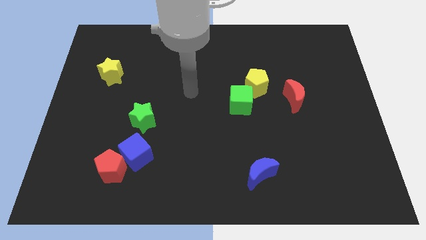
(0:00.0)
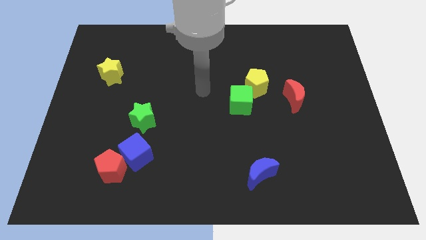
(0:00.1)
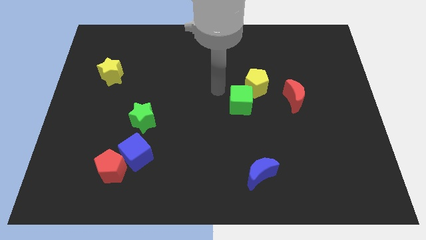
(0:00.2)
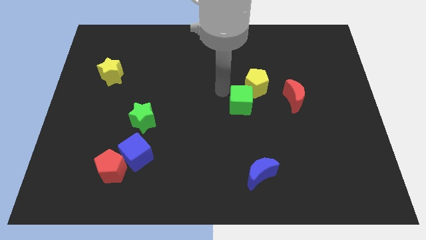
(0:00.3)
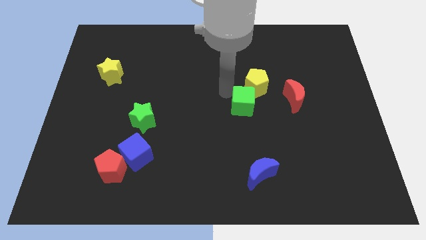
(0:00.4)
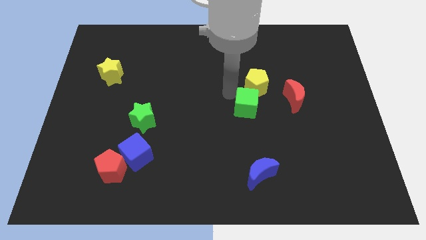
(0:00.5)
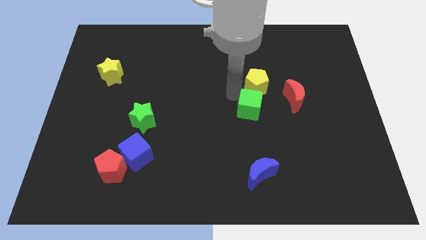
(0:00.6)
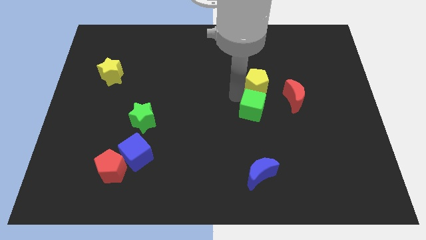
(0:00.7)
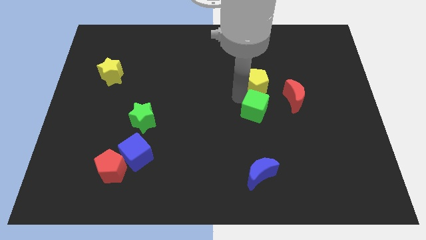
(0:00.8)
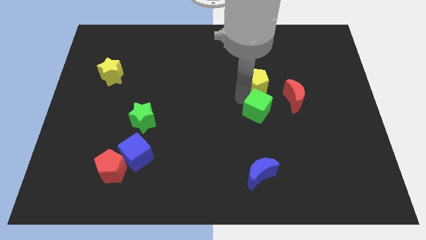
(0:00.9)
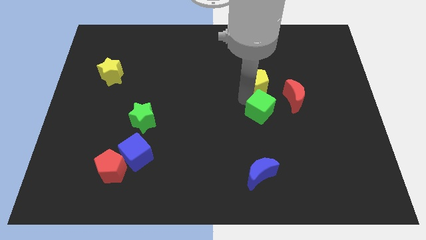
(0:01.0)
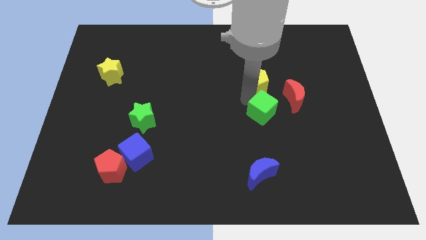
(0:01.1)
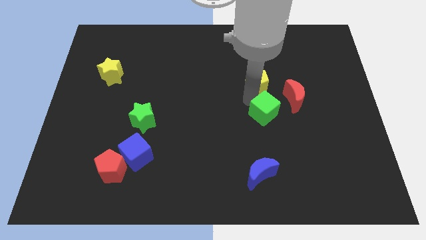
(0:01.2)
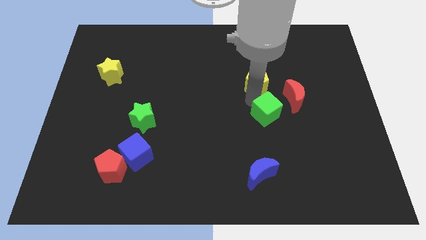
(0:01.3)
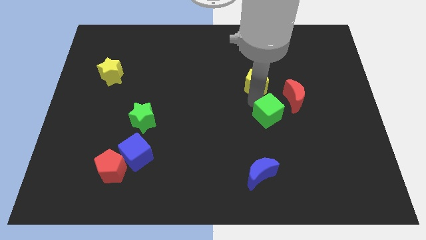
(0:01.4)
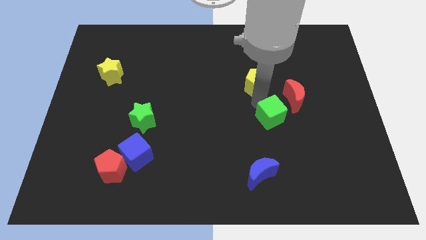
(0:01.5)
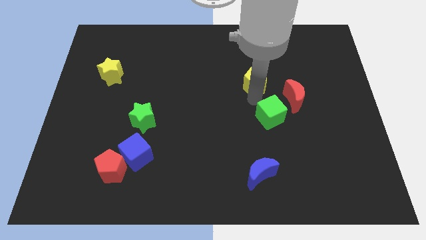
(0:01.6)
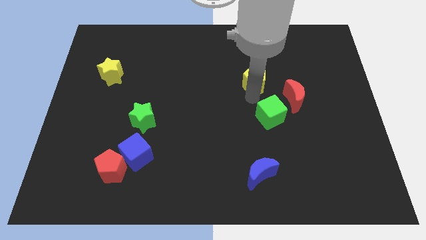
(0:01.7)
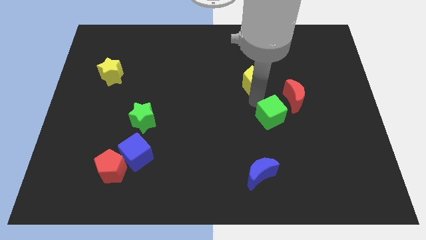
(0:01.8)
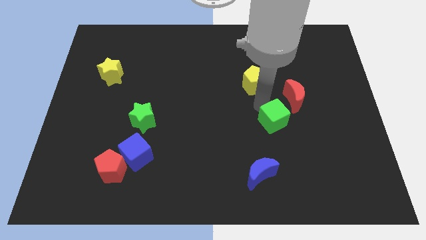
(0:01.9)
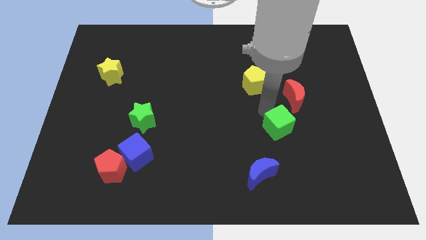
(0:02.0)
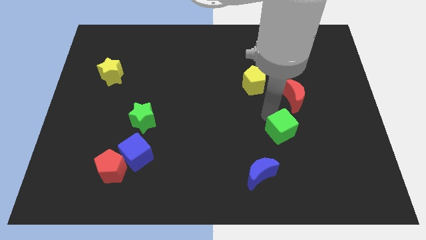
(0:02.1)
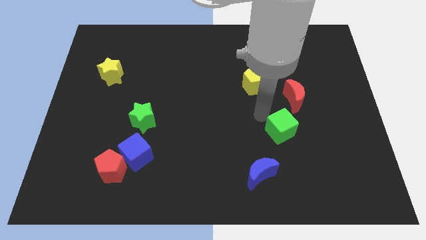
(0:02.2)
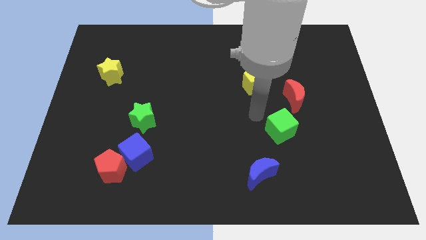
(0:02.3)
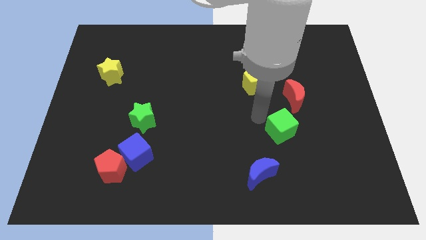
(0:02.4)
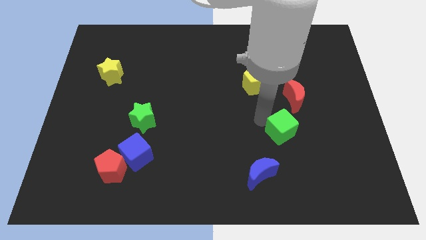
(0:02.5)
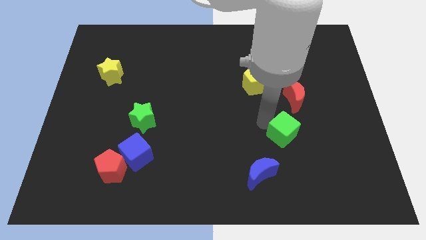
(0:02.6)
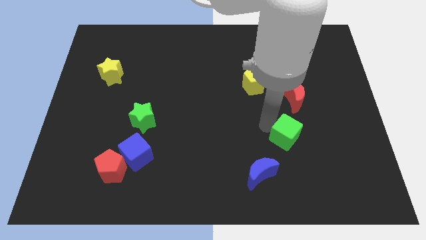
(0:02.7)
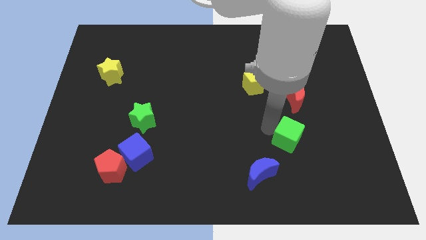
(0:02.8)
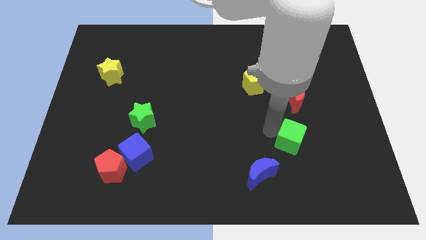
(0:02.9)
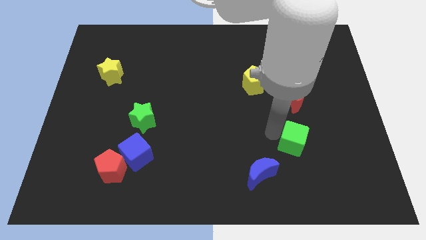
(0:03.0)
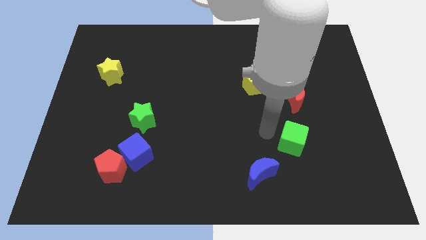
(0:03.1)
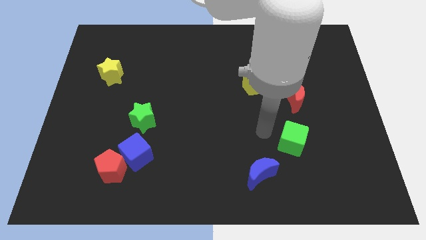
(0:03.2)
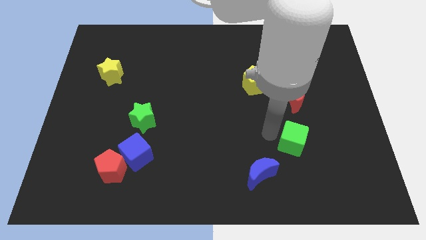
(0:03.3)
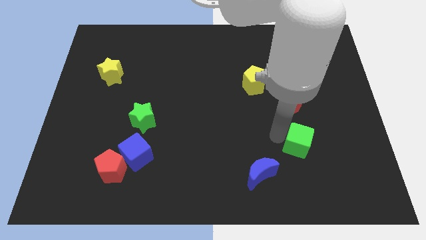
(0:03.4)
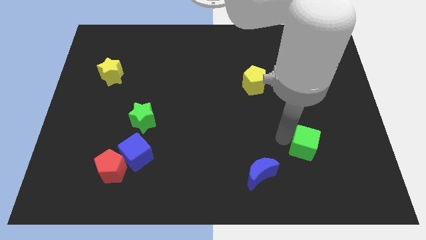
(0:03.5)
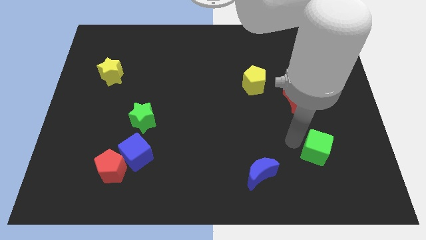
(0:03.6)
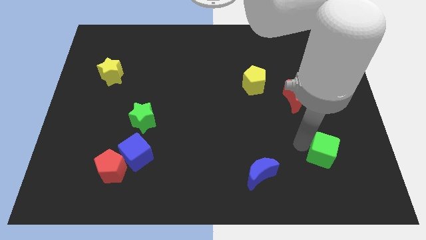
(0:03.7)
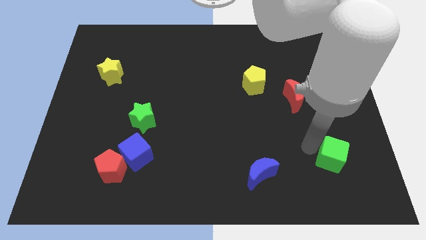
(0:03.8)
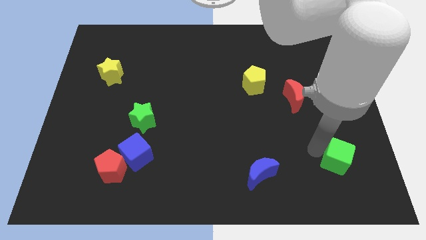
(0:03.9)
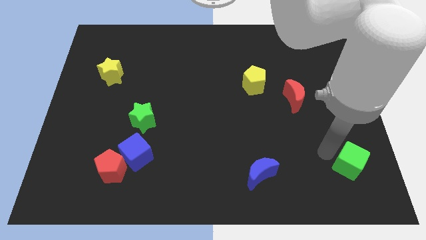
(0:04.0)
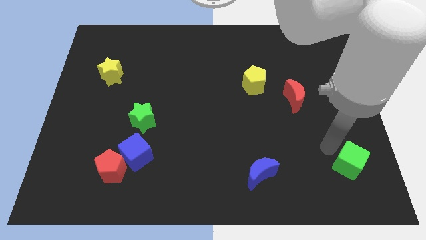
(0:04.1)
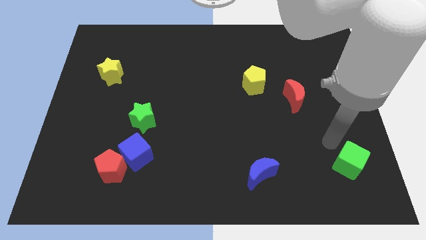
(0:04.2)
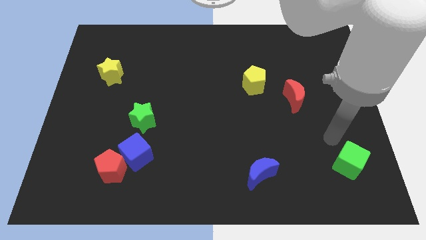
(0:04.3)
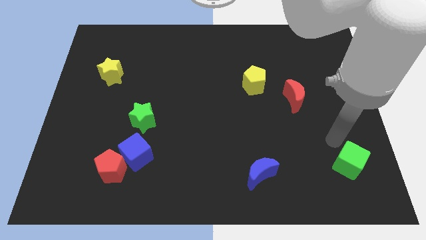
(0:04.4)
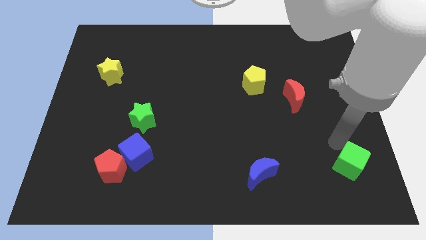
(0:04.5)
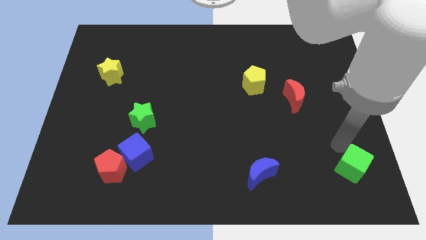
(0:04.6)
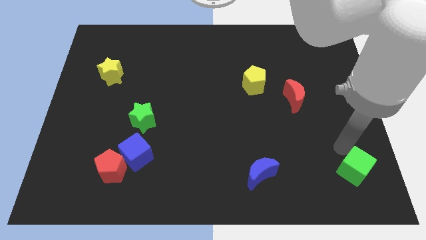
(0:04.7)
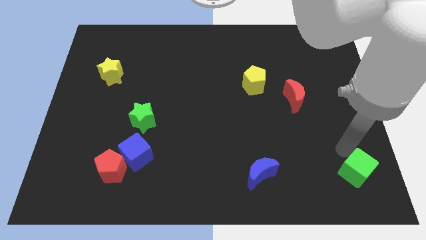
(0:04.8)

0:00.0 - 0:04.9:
push the green cube to the bottom right of the board

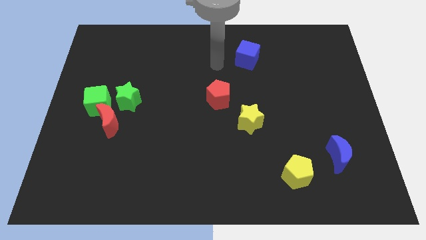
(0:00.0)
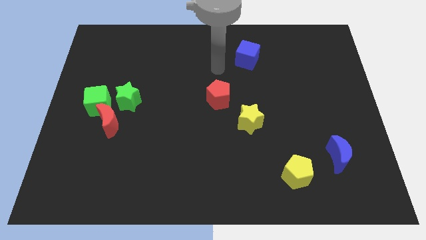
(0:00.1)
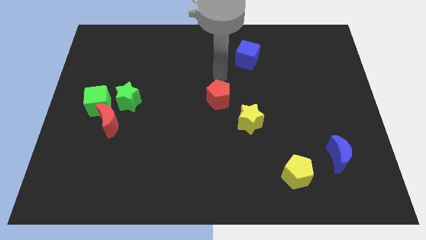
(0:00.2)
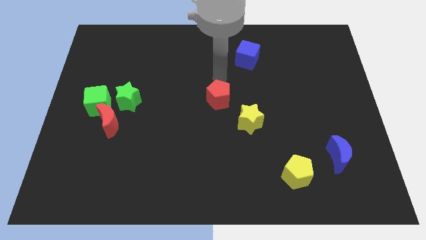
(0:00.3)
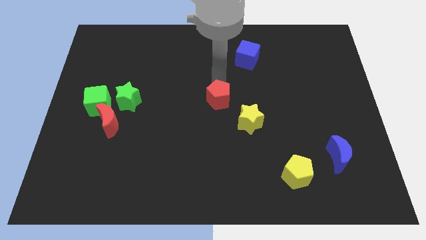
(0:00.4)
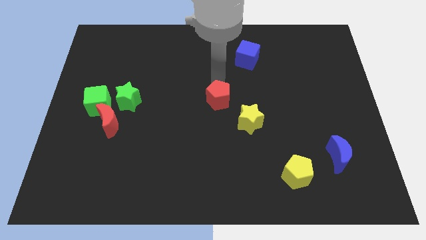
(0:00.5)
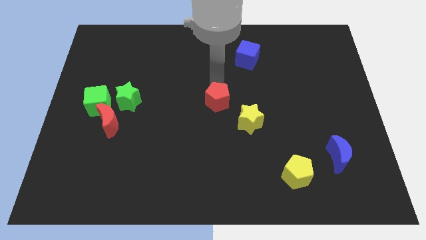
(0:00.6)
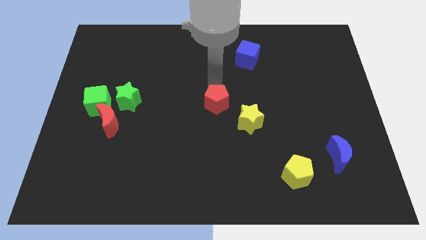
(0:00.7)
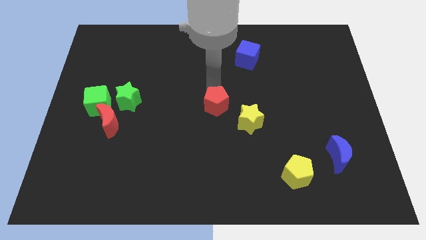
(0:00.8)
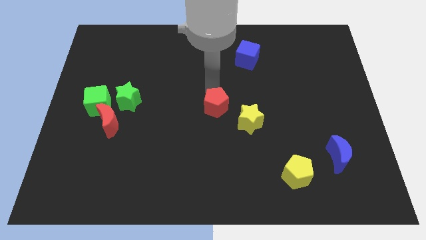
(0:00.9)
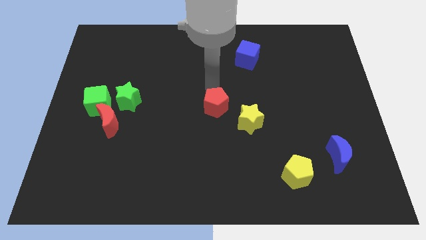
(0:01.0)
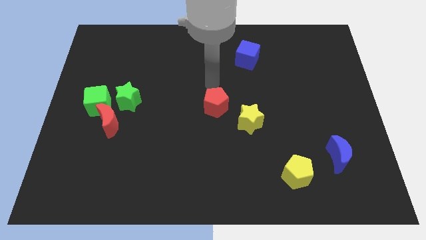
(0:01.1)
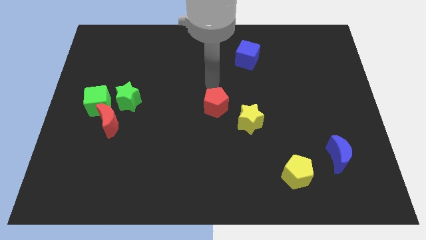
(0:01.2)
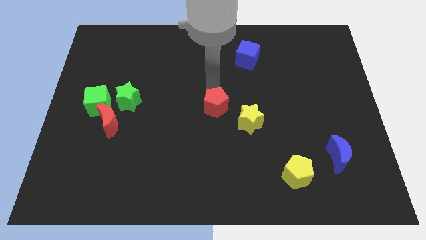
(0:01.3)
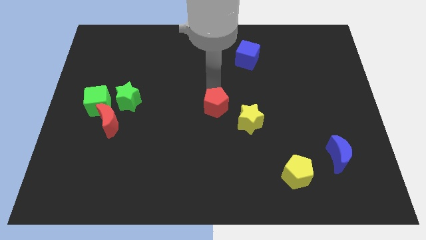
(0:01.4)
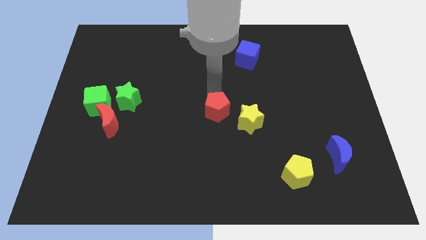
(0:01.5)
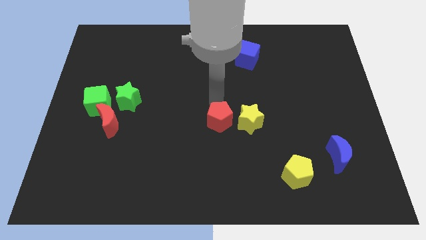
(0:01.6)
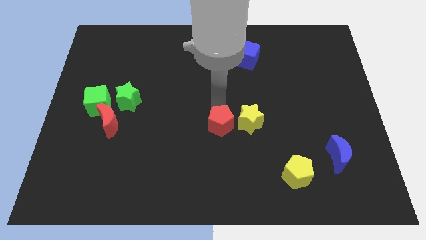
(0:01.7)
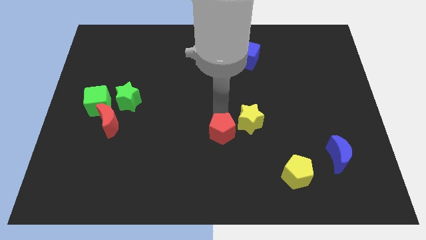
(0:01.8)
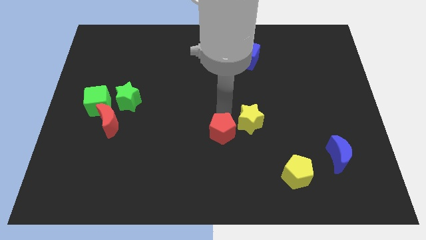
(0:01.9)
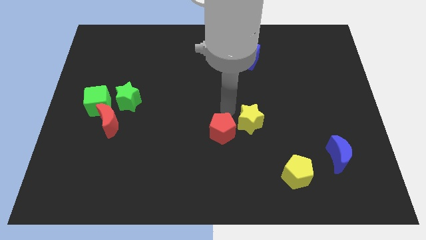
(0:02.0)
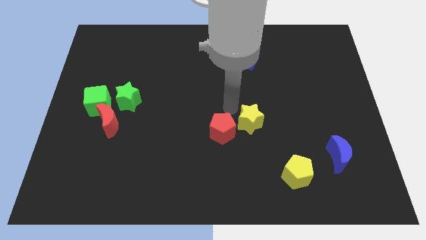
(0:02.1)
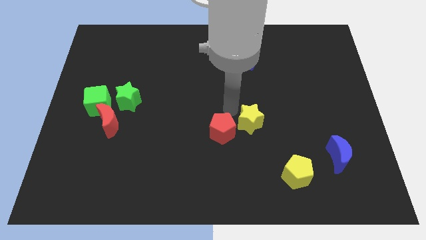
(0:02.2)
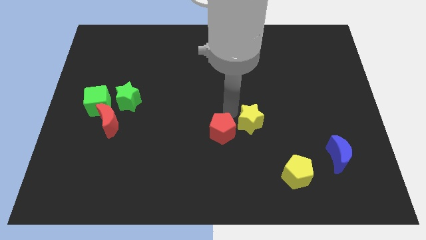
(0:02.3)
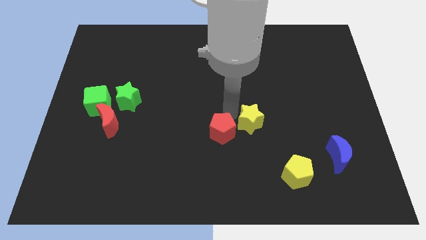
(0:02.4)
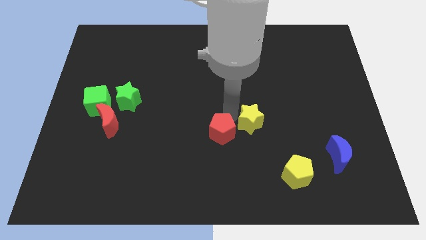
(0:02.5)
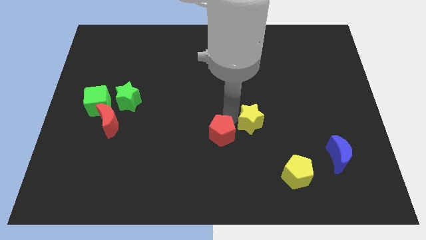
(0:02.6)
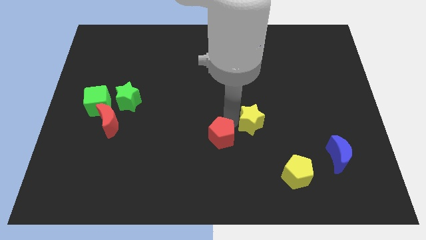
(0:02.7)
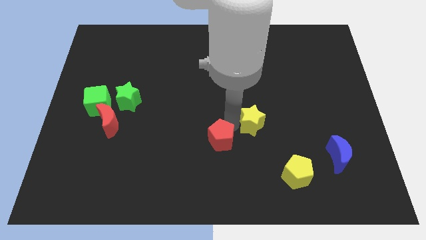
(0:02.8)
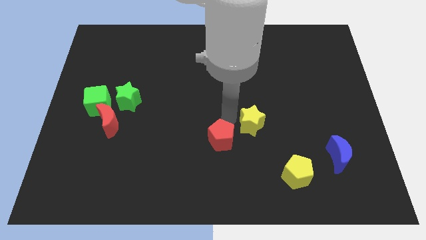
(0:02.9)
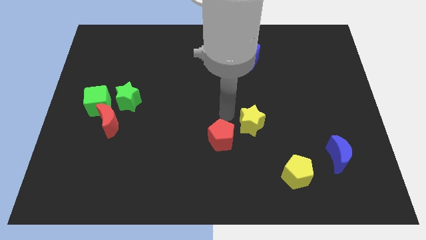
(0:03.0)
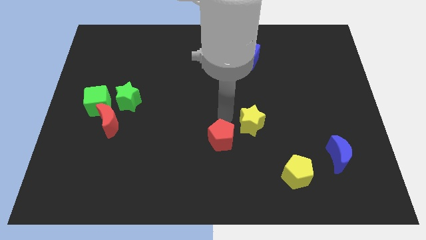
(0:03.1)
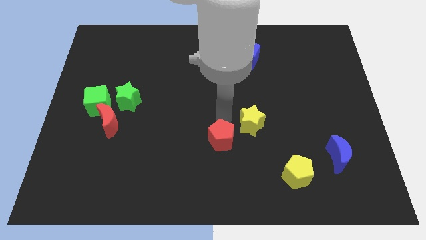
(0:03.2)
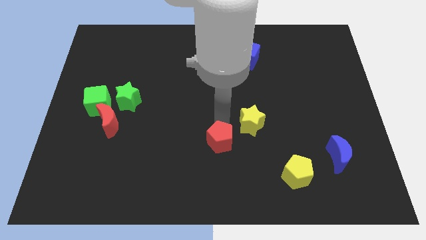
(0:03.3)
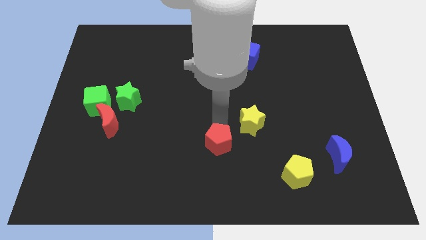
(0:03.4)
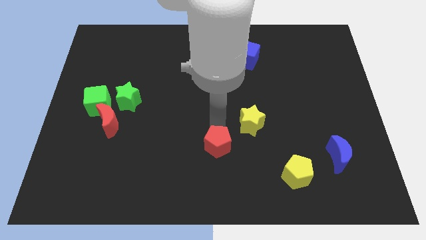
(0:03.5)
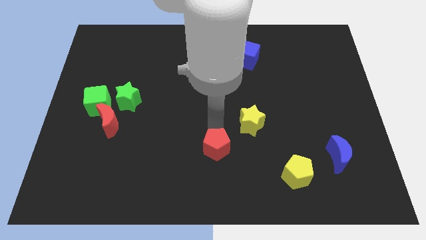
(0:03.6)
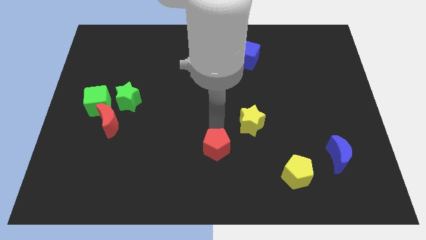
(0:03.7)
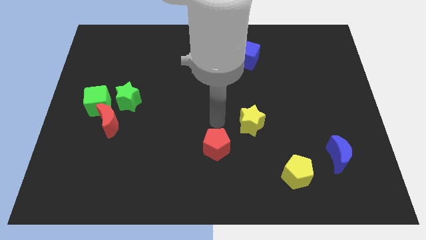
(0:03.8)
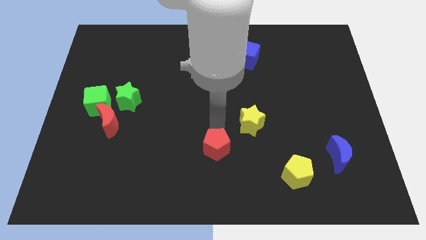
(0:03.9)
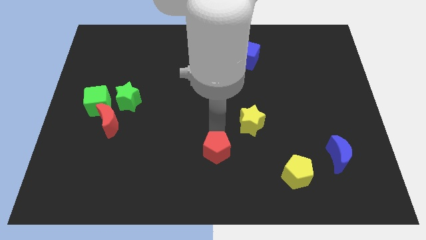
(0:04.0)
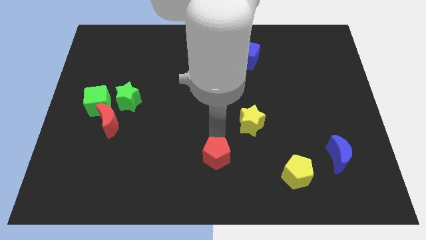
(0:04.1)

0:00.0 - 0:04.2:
put the red pentagon to the bottom
